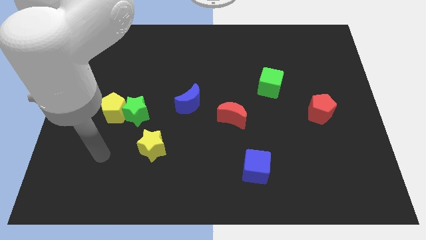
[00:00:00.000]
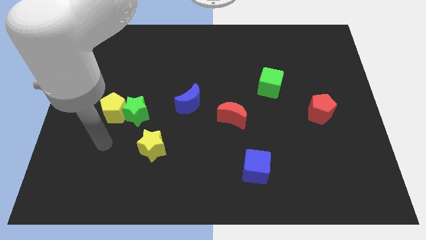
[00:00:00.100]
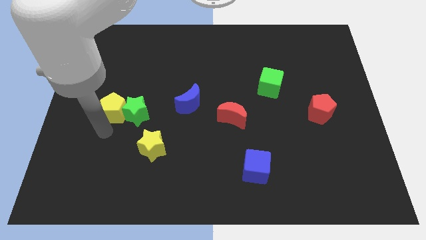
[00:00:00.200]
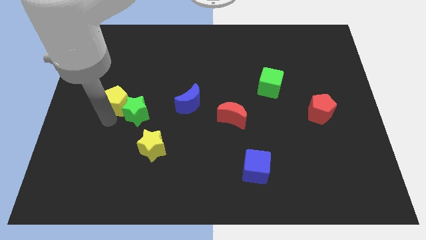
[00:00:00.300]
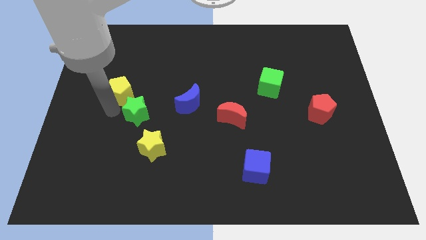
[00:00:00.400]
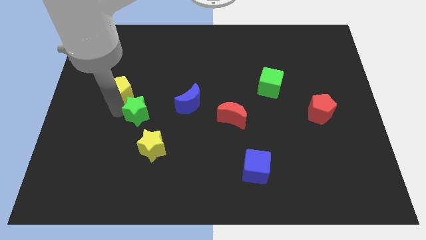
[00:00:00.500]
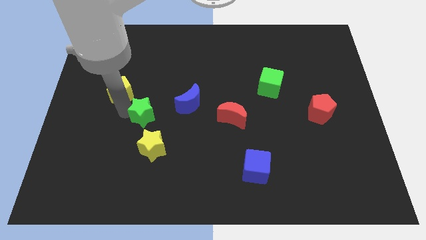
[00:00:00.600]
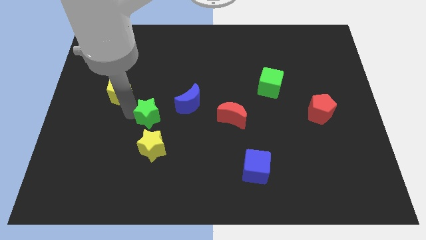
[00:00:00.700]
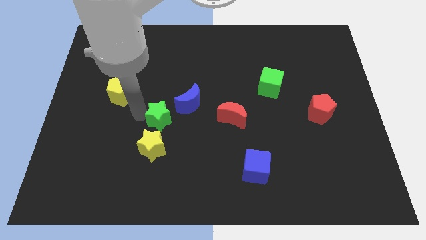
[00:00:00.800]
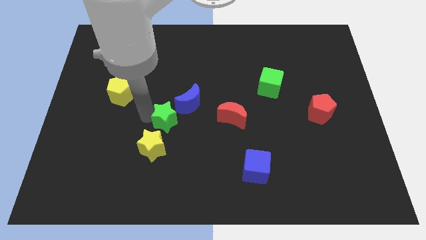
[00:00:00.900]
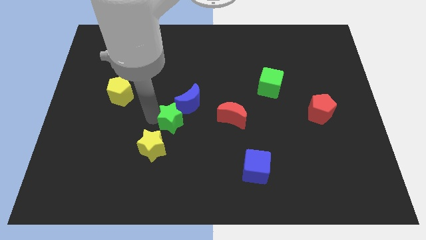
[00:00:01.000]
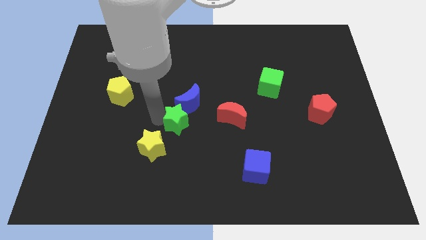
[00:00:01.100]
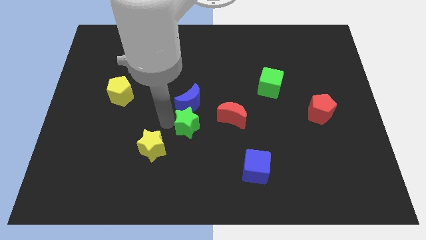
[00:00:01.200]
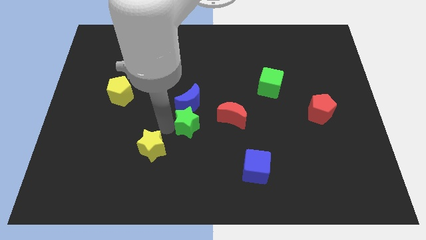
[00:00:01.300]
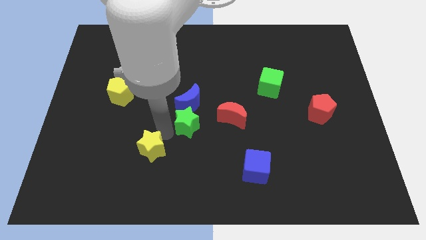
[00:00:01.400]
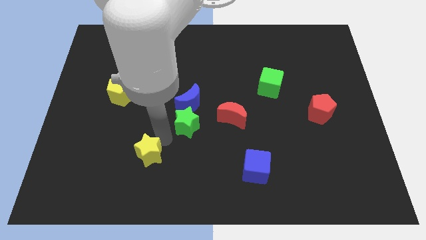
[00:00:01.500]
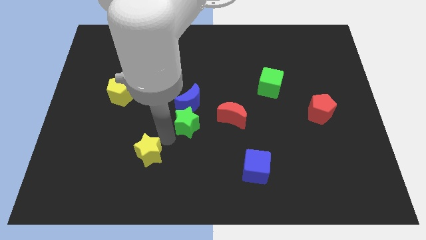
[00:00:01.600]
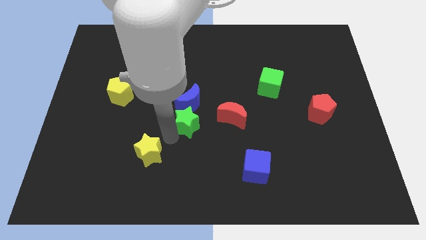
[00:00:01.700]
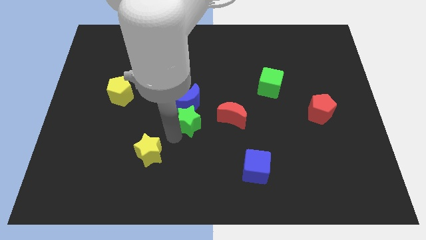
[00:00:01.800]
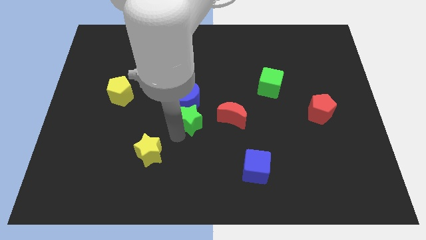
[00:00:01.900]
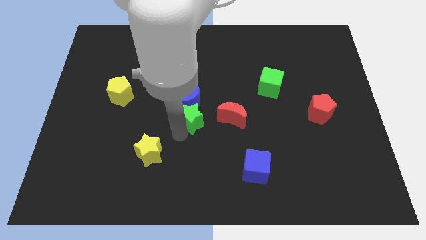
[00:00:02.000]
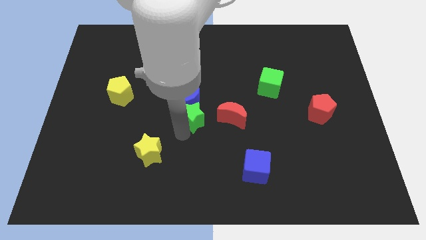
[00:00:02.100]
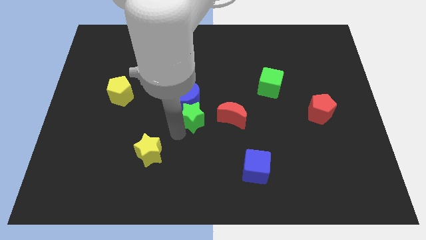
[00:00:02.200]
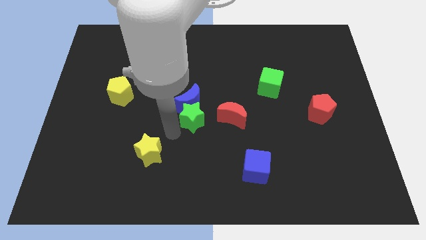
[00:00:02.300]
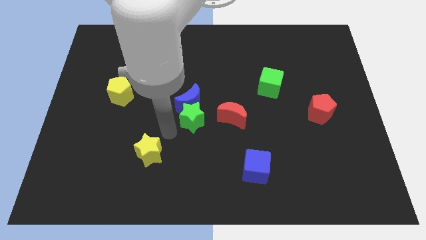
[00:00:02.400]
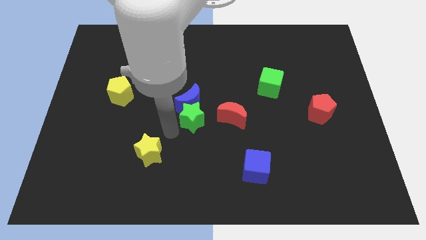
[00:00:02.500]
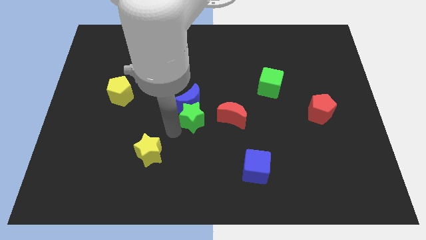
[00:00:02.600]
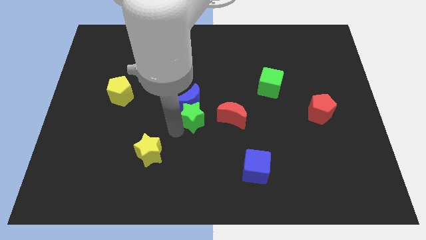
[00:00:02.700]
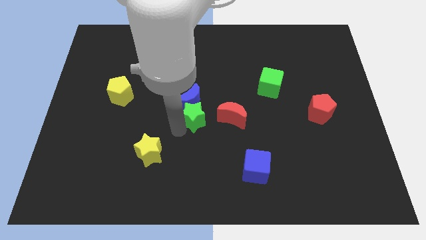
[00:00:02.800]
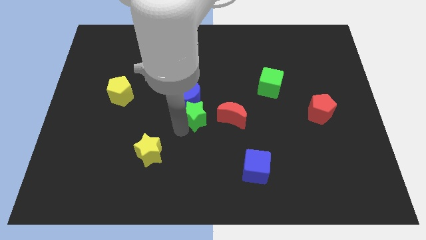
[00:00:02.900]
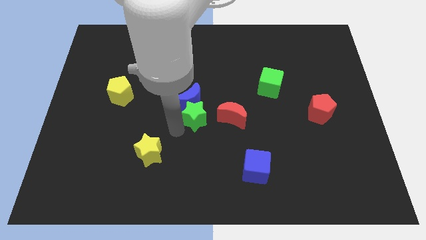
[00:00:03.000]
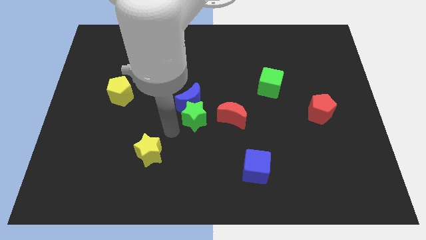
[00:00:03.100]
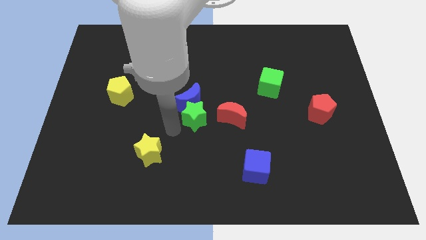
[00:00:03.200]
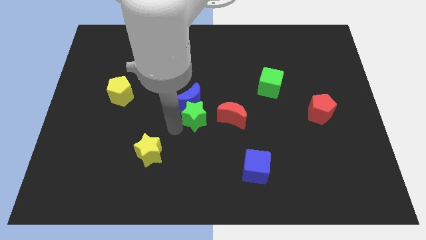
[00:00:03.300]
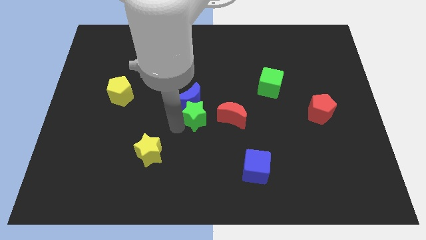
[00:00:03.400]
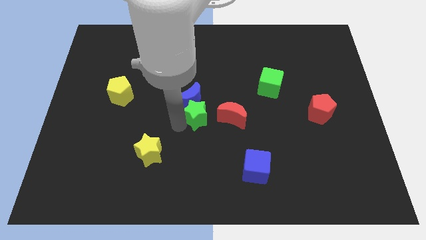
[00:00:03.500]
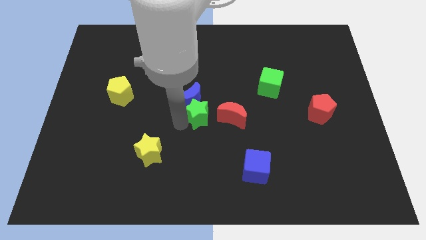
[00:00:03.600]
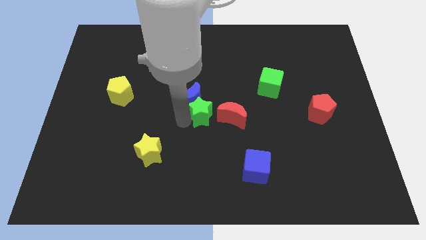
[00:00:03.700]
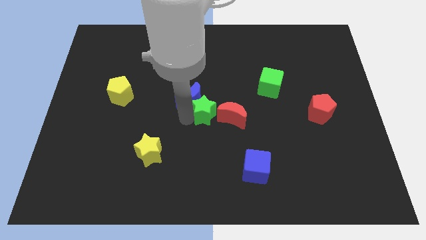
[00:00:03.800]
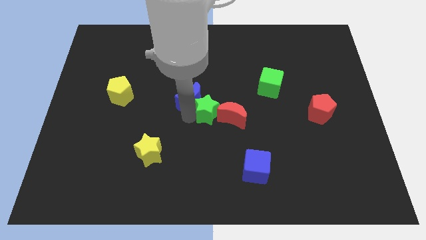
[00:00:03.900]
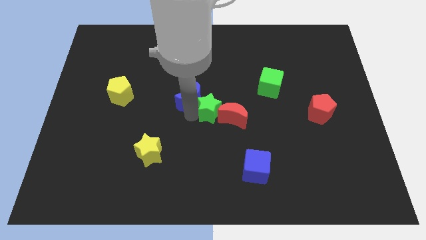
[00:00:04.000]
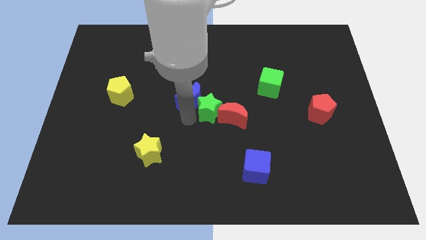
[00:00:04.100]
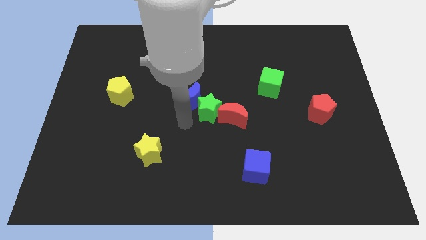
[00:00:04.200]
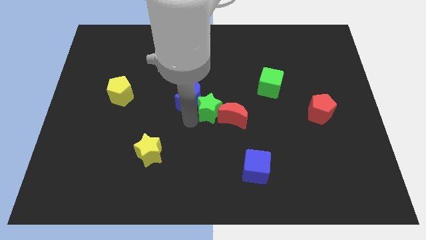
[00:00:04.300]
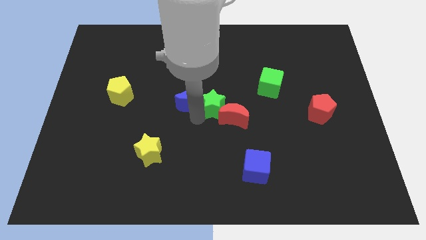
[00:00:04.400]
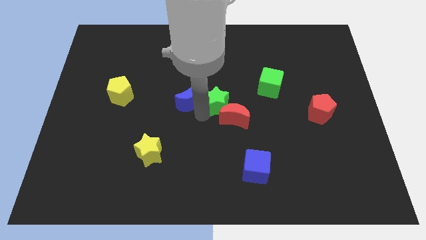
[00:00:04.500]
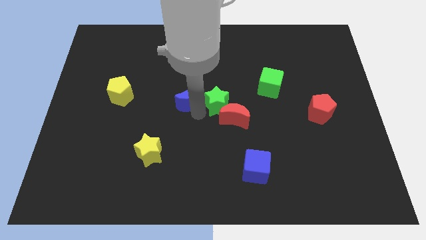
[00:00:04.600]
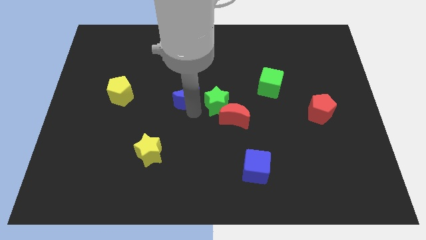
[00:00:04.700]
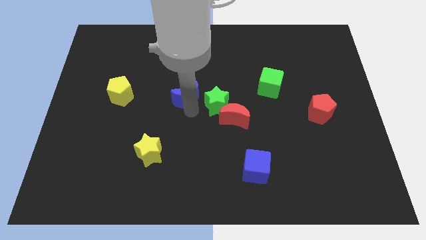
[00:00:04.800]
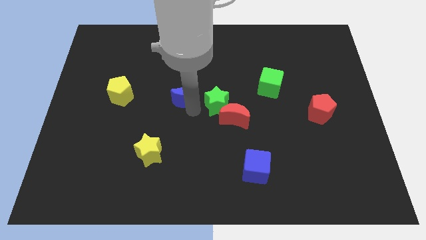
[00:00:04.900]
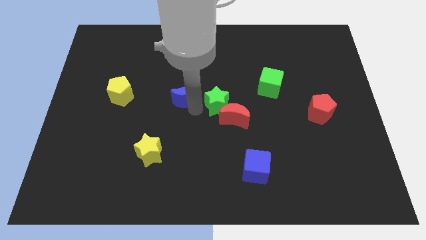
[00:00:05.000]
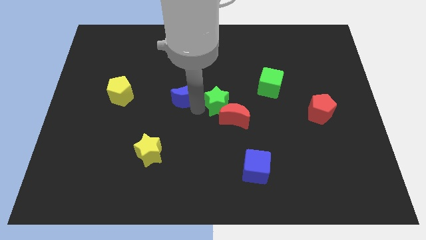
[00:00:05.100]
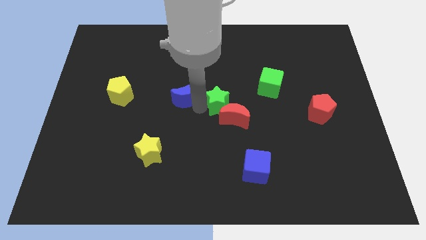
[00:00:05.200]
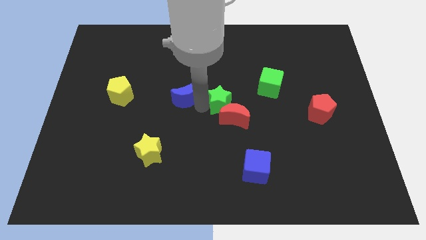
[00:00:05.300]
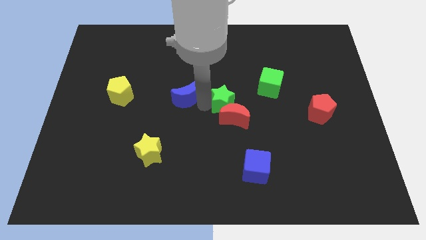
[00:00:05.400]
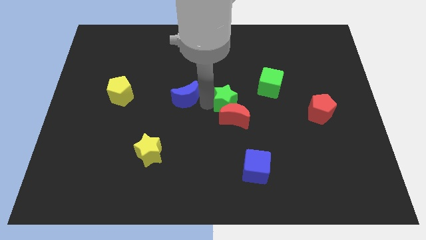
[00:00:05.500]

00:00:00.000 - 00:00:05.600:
move the green star right

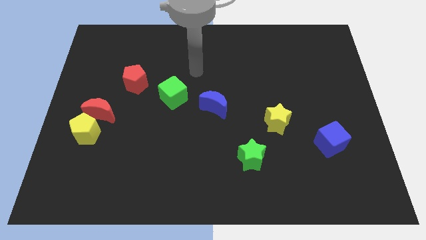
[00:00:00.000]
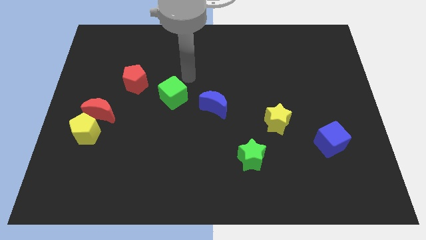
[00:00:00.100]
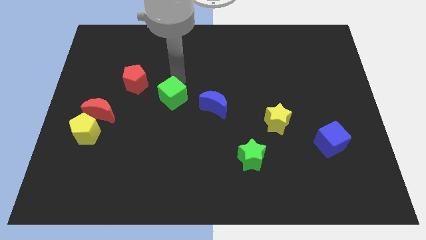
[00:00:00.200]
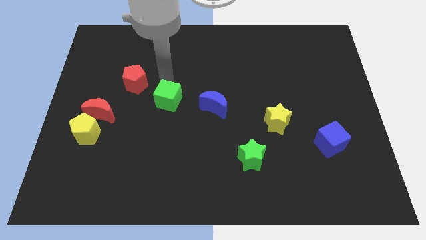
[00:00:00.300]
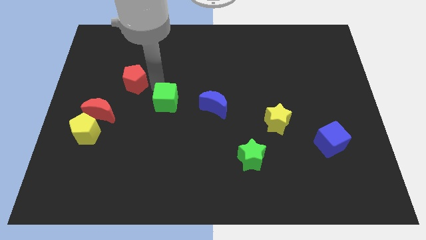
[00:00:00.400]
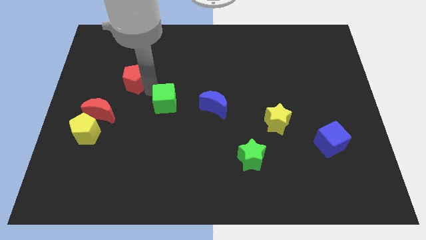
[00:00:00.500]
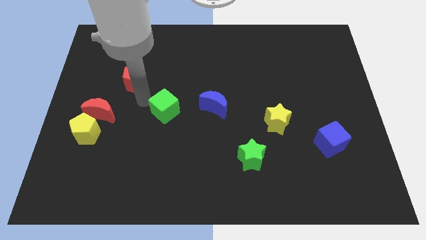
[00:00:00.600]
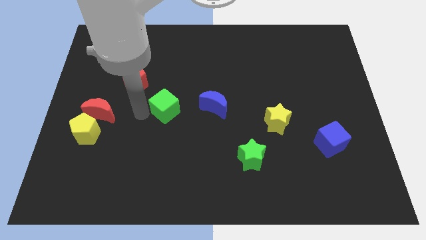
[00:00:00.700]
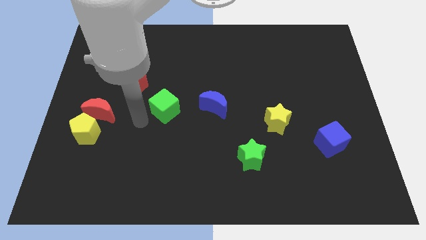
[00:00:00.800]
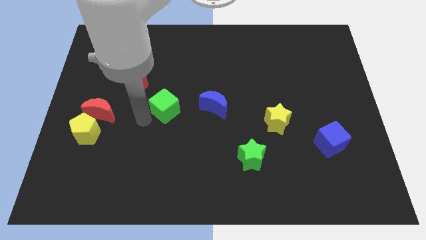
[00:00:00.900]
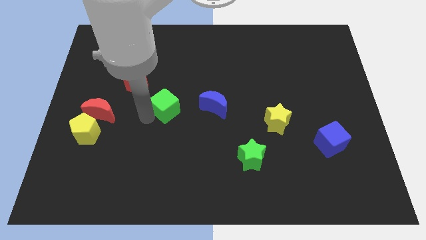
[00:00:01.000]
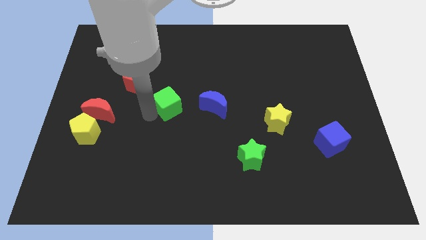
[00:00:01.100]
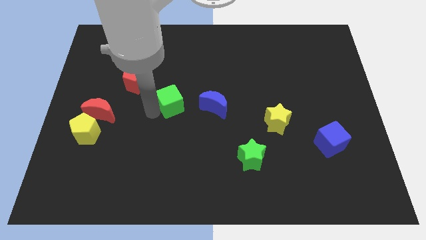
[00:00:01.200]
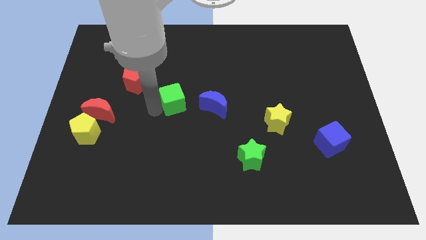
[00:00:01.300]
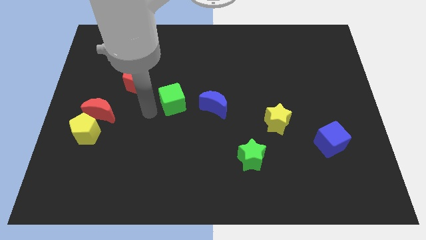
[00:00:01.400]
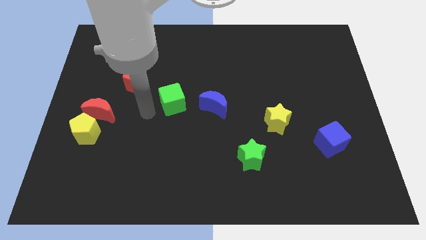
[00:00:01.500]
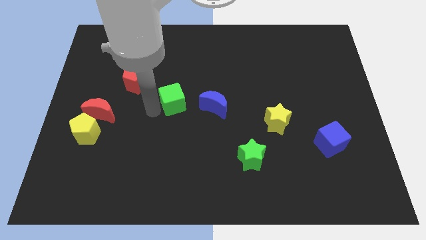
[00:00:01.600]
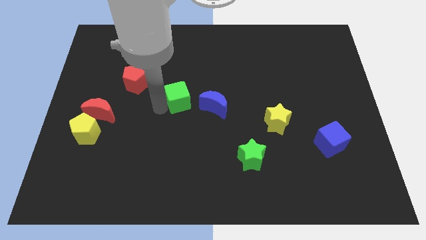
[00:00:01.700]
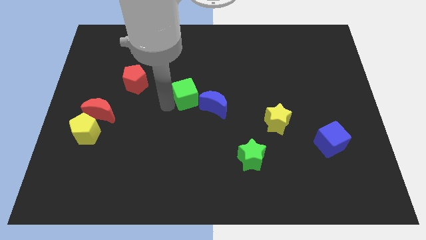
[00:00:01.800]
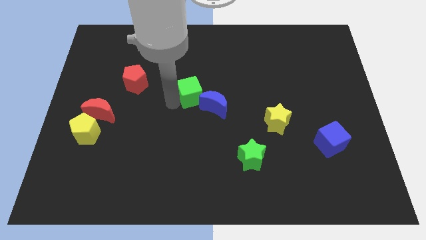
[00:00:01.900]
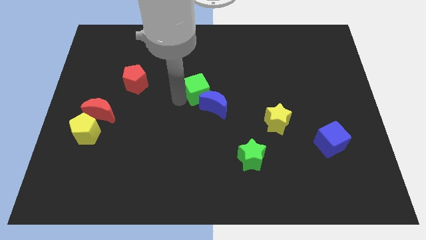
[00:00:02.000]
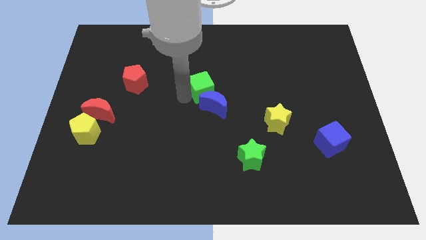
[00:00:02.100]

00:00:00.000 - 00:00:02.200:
slightly slide the green cube to the right
